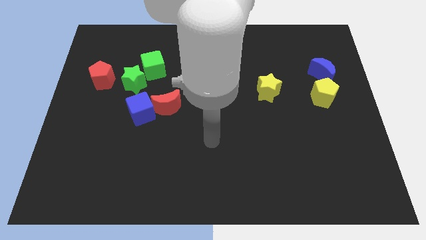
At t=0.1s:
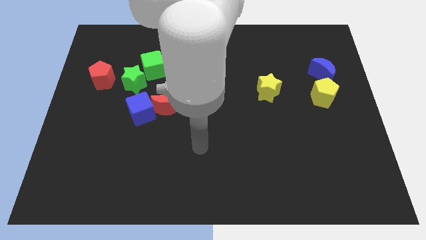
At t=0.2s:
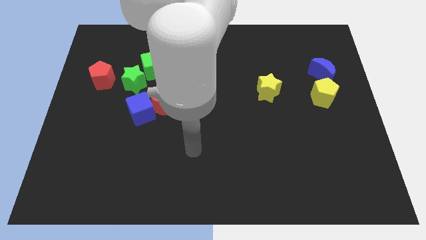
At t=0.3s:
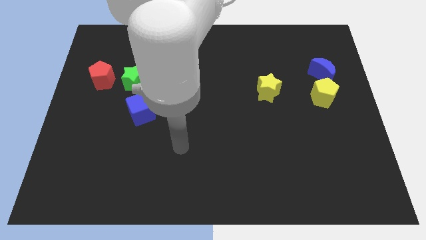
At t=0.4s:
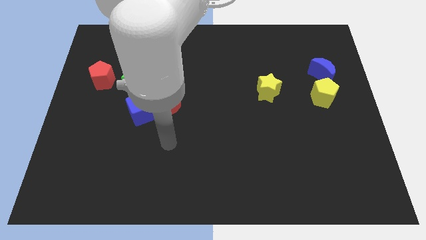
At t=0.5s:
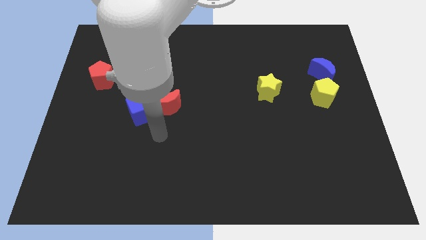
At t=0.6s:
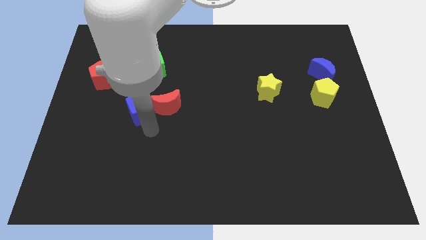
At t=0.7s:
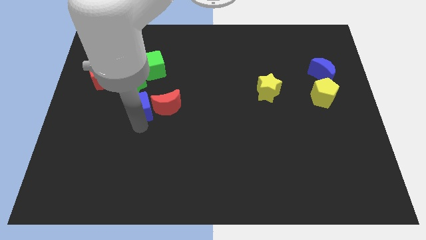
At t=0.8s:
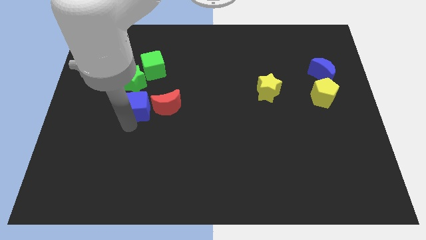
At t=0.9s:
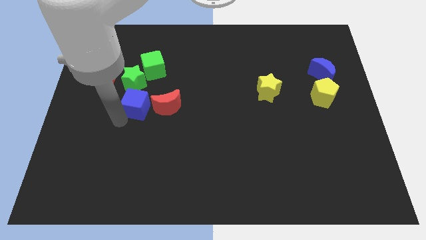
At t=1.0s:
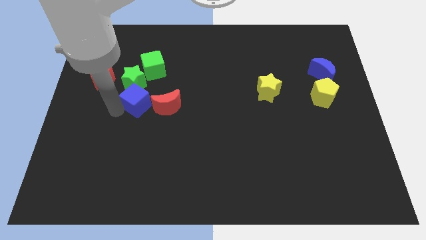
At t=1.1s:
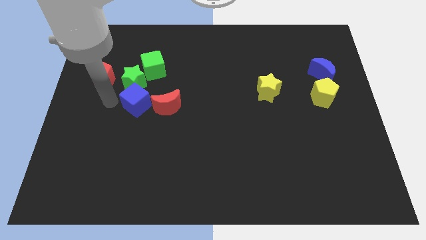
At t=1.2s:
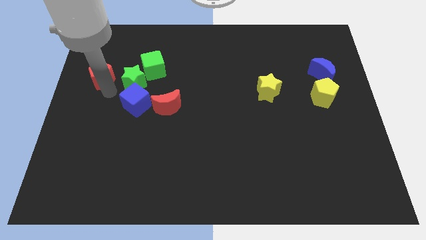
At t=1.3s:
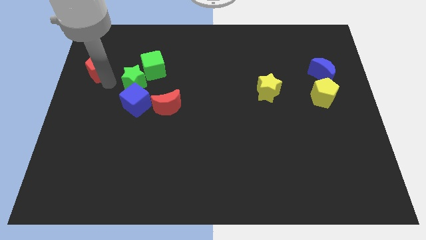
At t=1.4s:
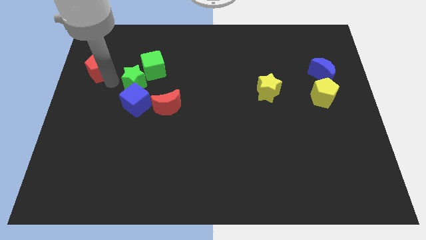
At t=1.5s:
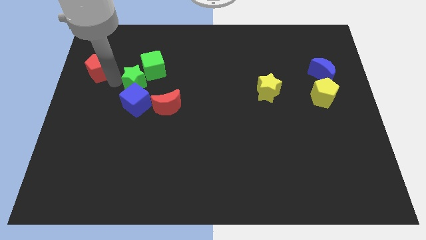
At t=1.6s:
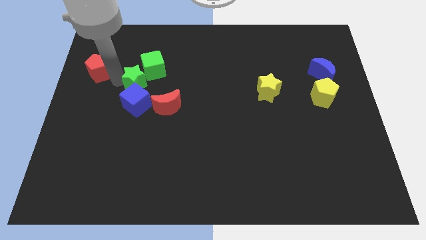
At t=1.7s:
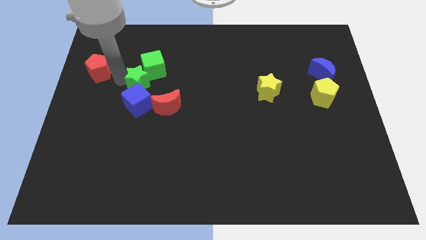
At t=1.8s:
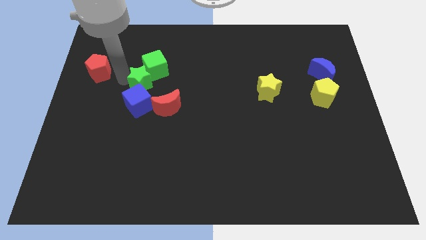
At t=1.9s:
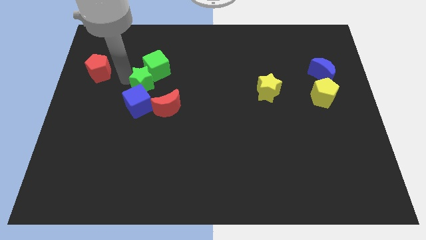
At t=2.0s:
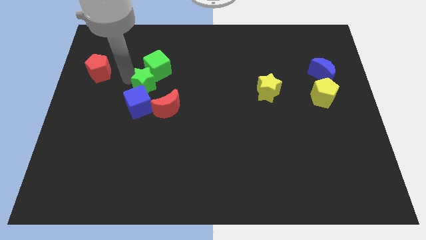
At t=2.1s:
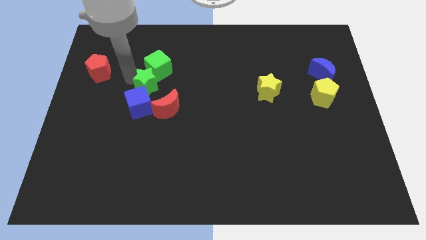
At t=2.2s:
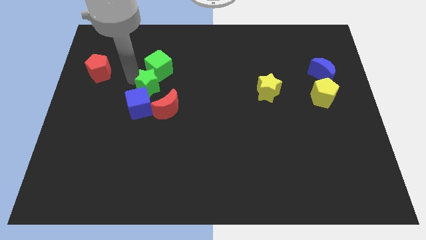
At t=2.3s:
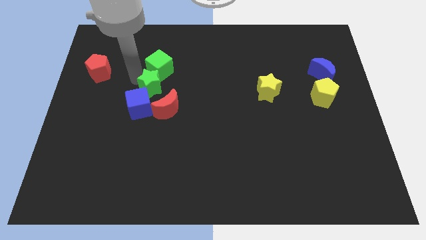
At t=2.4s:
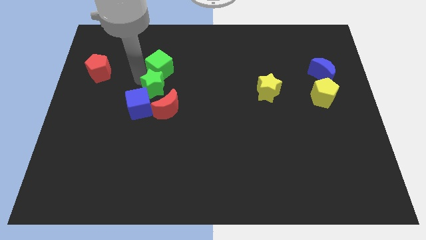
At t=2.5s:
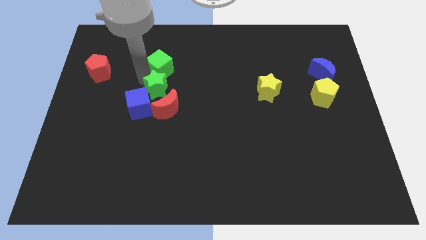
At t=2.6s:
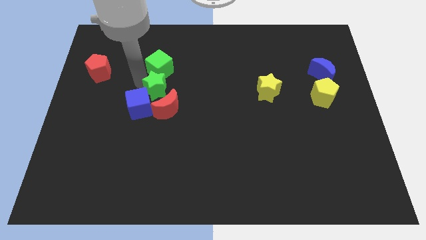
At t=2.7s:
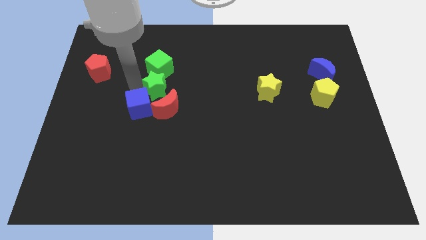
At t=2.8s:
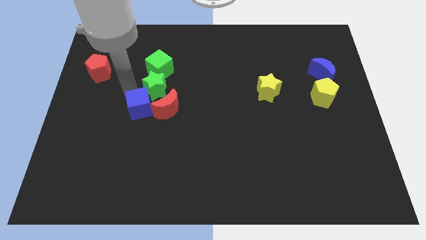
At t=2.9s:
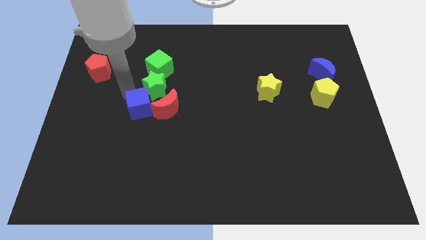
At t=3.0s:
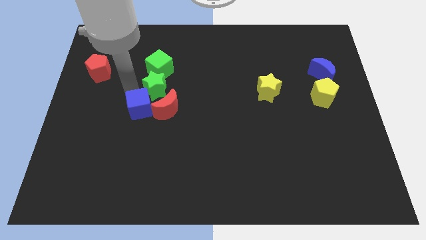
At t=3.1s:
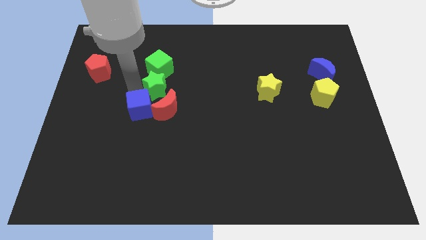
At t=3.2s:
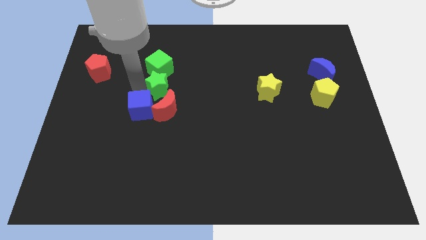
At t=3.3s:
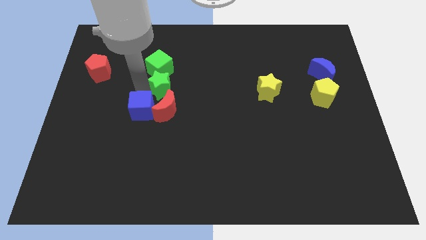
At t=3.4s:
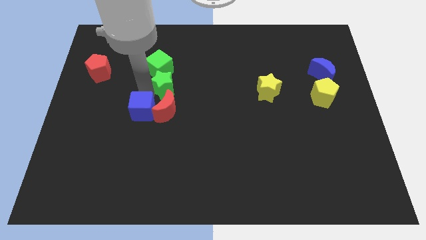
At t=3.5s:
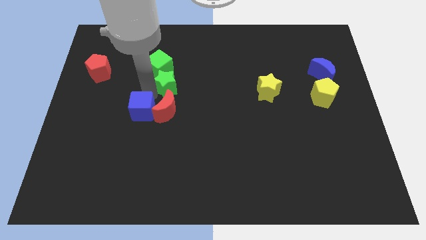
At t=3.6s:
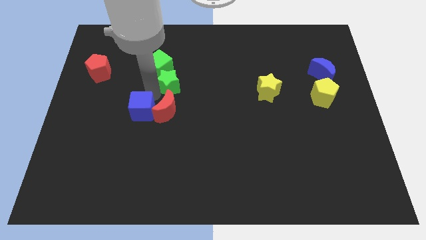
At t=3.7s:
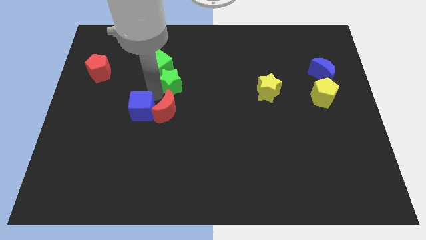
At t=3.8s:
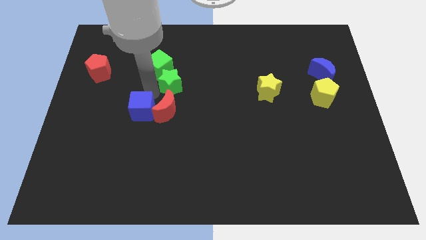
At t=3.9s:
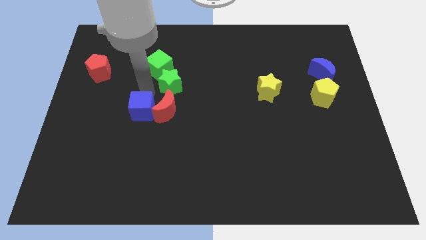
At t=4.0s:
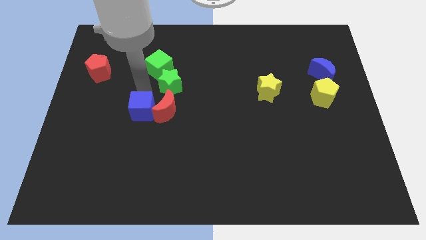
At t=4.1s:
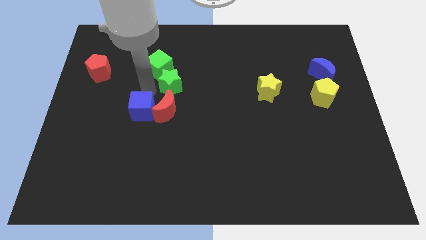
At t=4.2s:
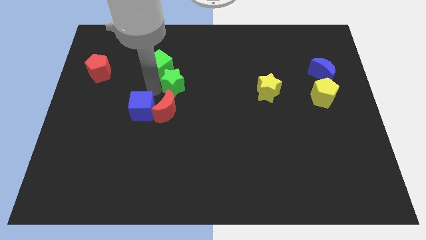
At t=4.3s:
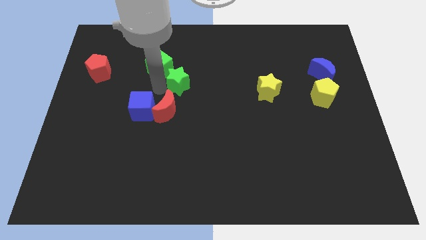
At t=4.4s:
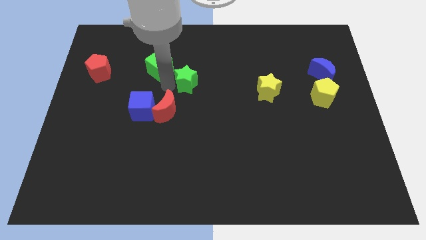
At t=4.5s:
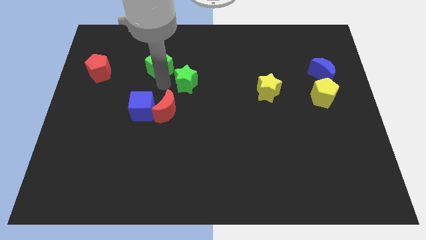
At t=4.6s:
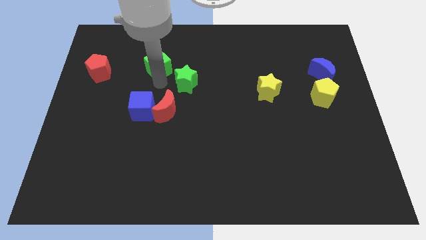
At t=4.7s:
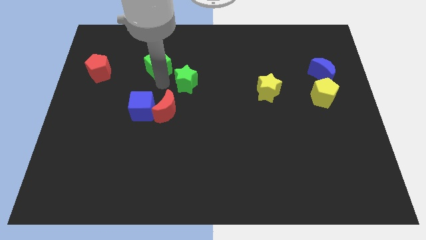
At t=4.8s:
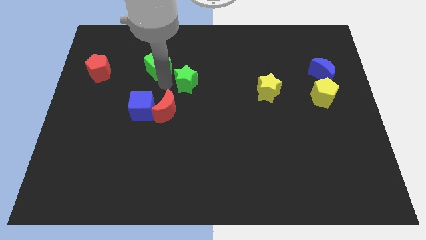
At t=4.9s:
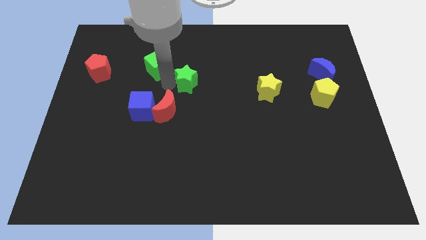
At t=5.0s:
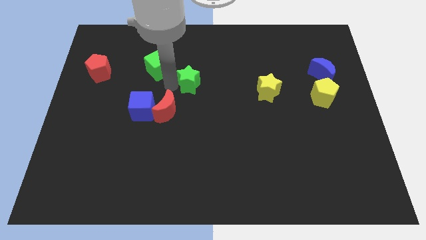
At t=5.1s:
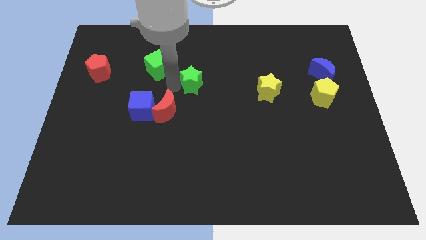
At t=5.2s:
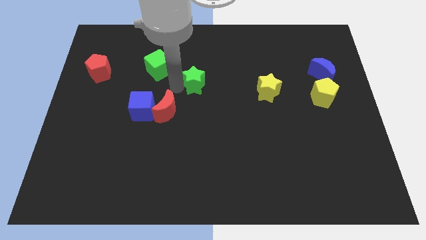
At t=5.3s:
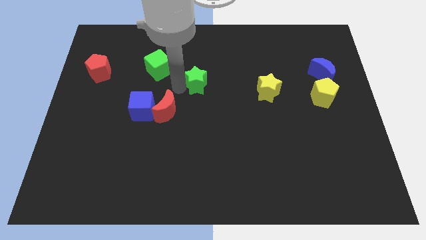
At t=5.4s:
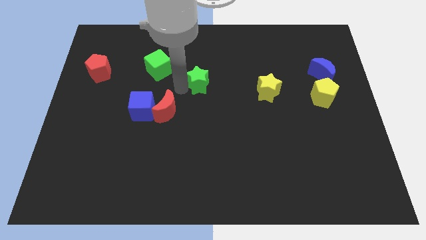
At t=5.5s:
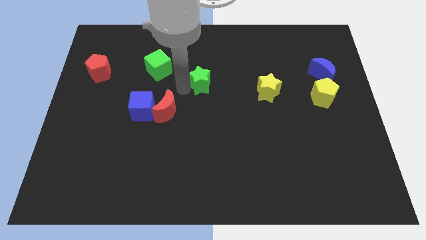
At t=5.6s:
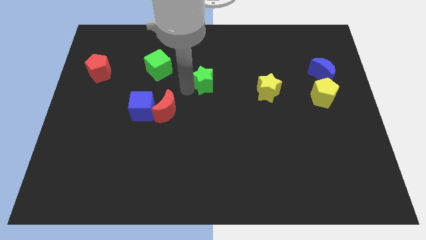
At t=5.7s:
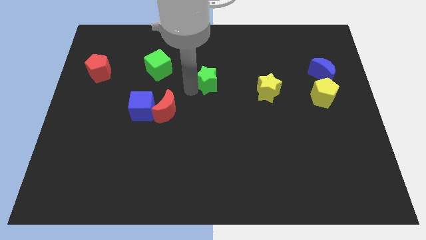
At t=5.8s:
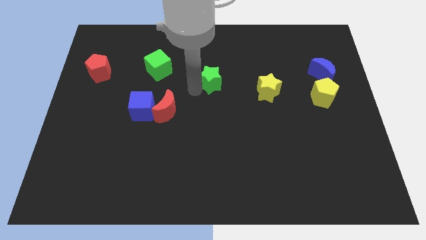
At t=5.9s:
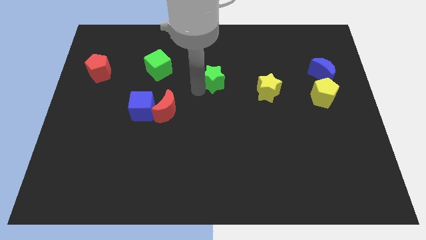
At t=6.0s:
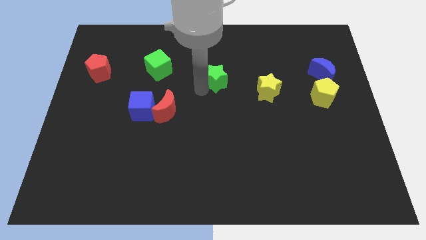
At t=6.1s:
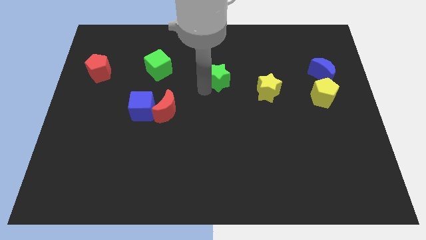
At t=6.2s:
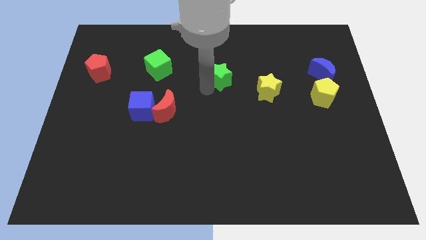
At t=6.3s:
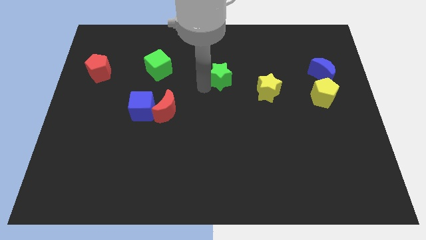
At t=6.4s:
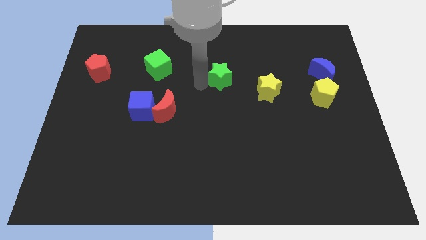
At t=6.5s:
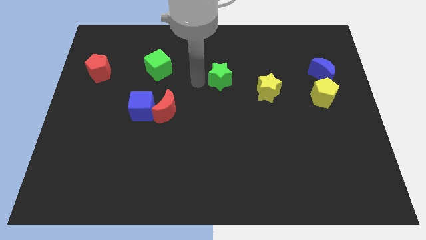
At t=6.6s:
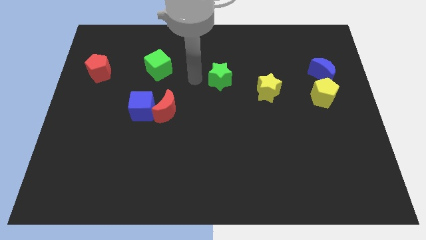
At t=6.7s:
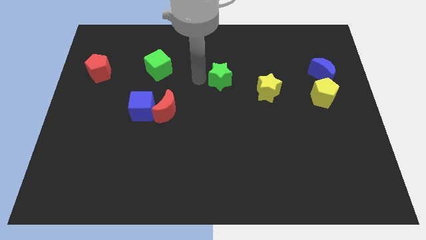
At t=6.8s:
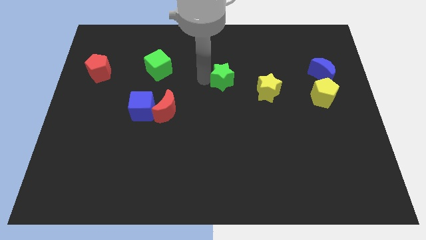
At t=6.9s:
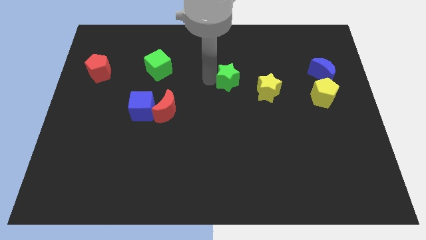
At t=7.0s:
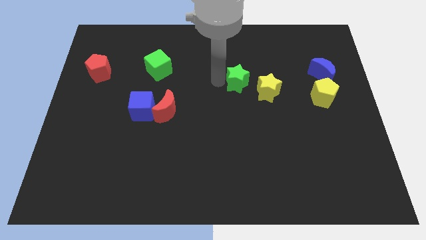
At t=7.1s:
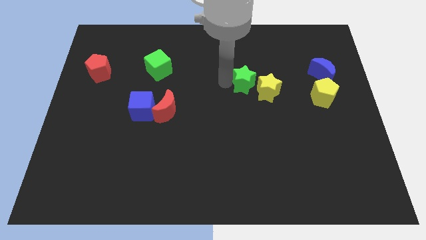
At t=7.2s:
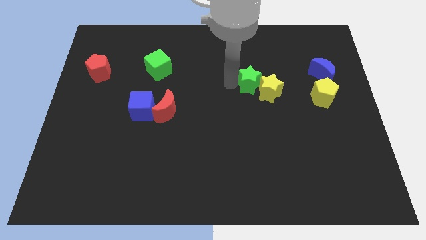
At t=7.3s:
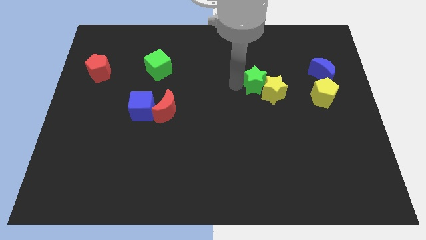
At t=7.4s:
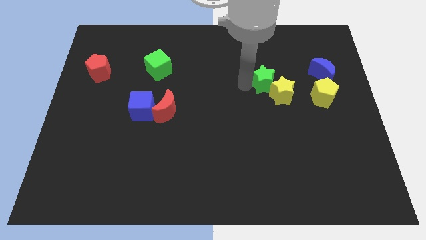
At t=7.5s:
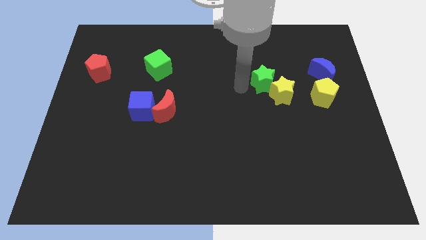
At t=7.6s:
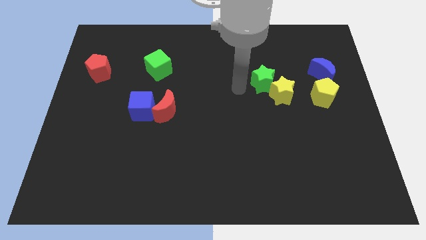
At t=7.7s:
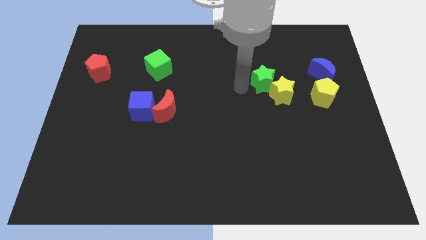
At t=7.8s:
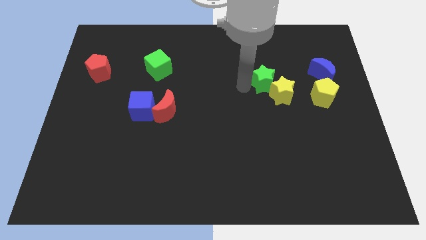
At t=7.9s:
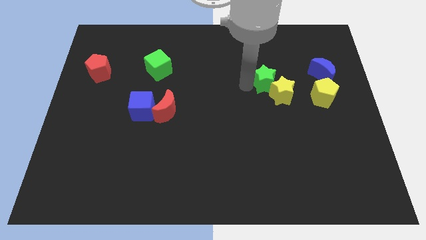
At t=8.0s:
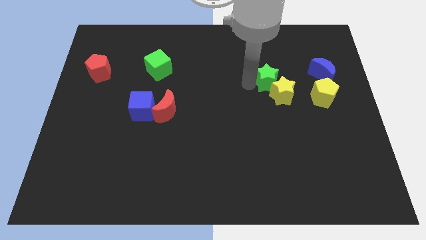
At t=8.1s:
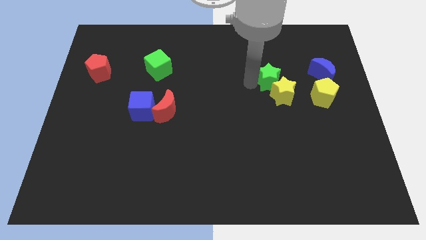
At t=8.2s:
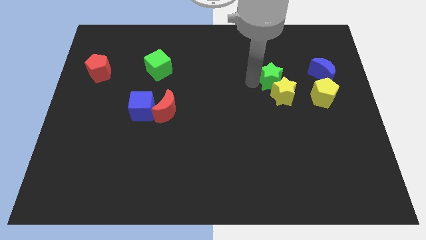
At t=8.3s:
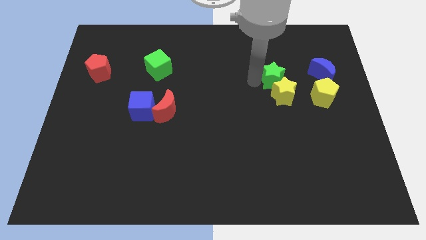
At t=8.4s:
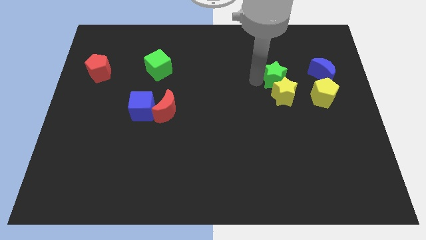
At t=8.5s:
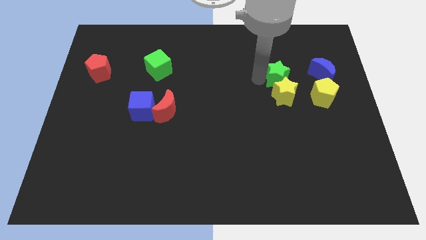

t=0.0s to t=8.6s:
push the green star diagonally up and to the left of the yellow pentagon
